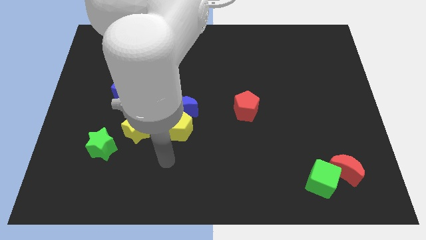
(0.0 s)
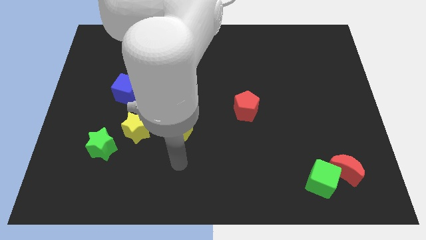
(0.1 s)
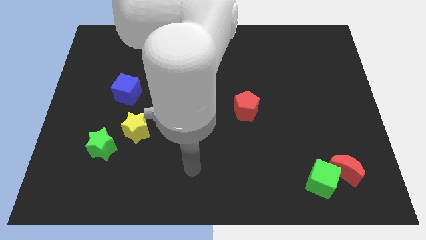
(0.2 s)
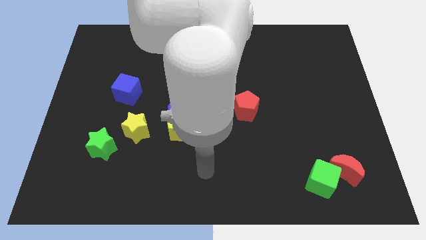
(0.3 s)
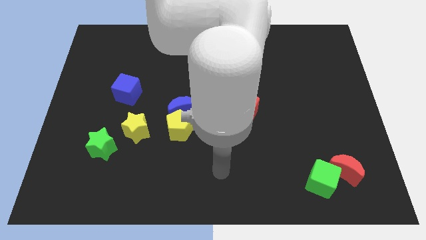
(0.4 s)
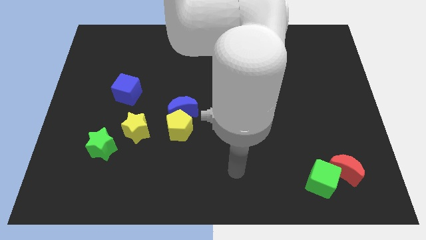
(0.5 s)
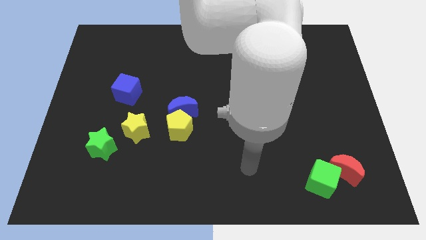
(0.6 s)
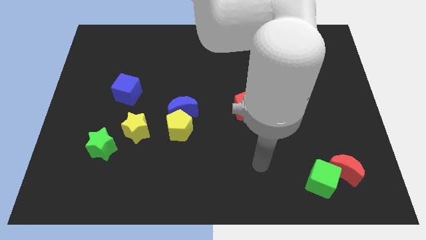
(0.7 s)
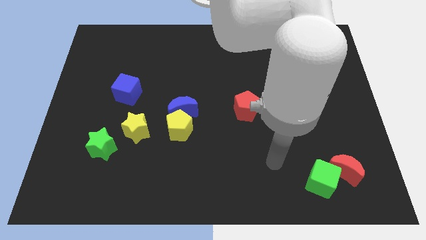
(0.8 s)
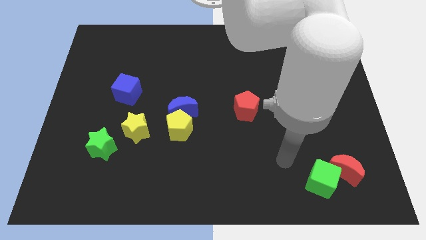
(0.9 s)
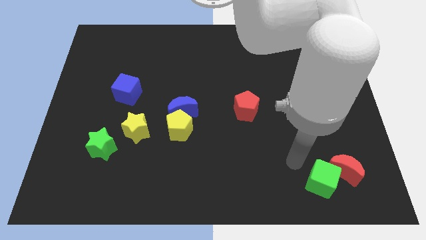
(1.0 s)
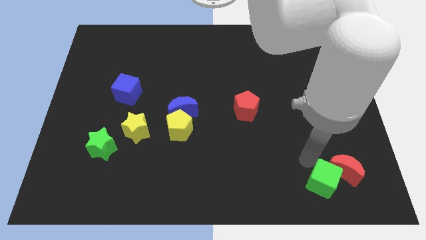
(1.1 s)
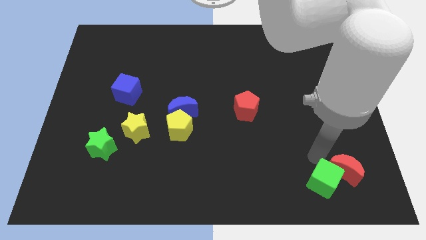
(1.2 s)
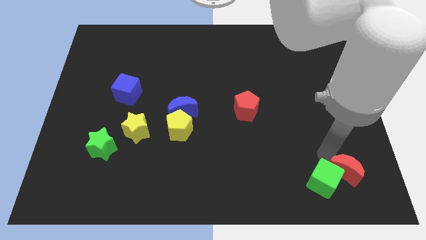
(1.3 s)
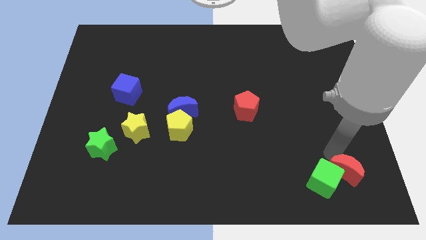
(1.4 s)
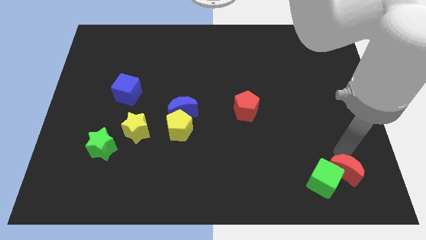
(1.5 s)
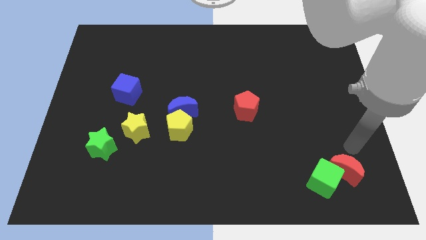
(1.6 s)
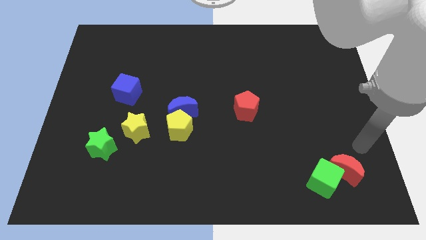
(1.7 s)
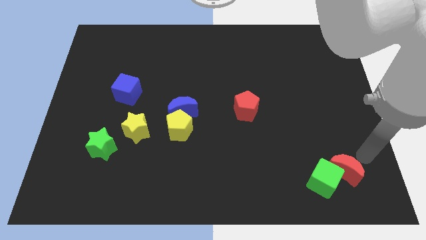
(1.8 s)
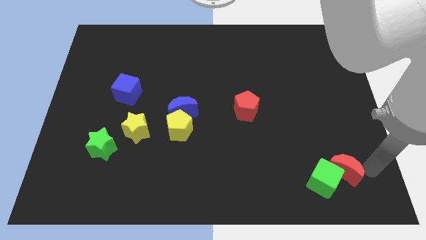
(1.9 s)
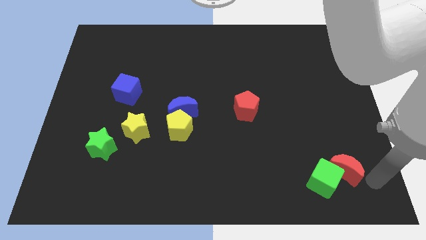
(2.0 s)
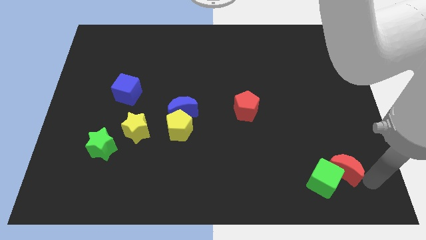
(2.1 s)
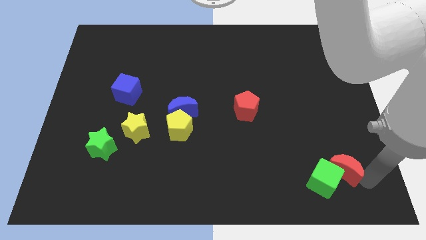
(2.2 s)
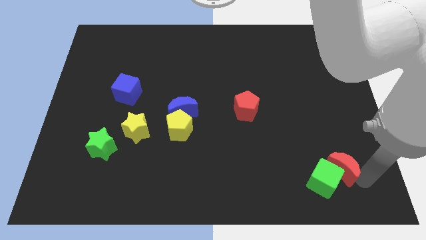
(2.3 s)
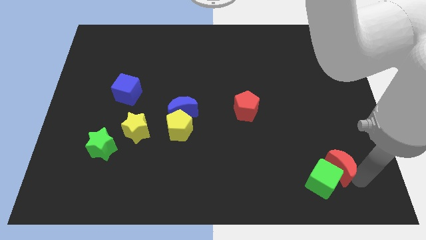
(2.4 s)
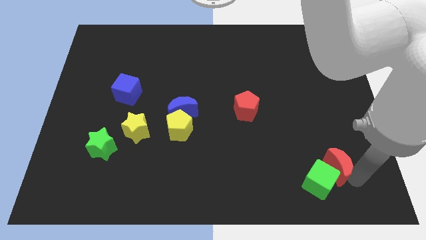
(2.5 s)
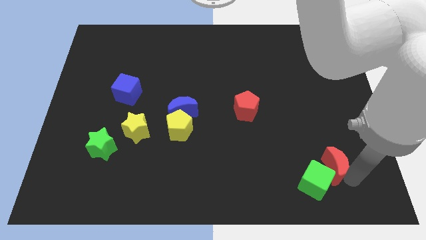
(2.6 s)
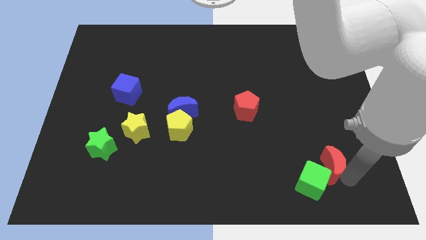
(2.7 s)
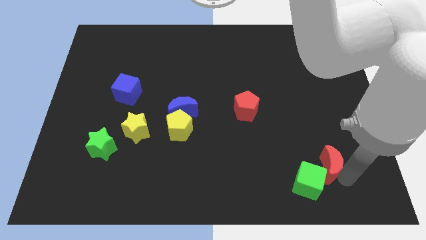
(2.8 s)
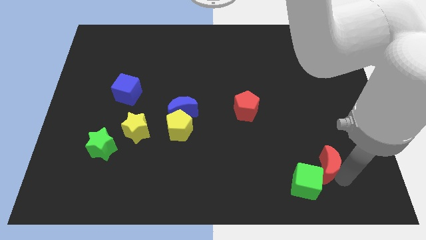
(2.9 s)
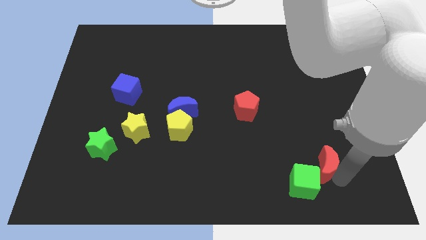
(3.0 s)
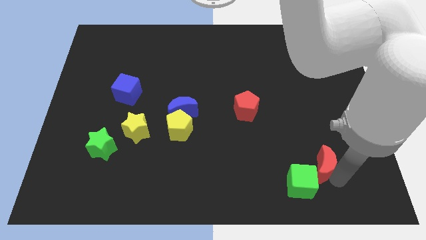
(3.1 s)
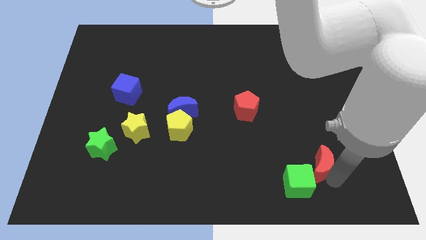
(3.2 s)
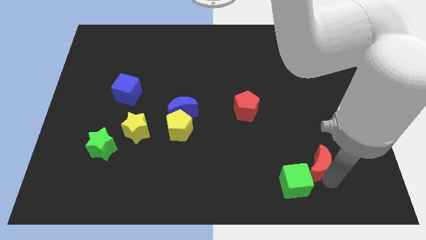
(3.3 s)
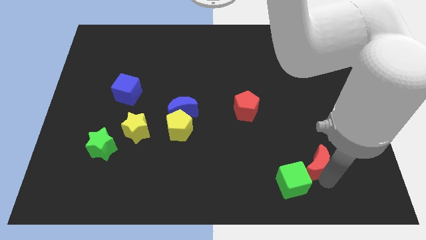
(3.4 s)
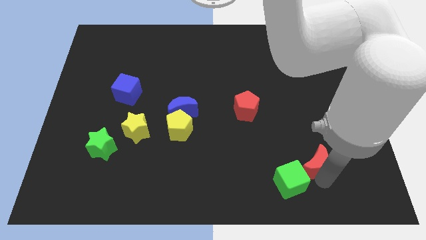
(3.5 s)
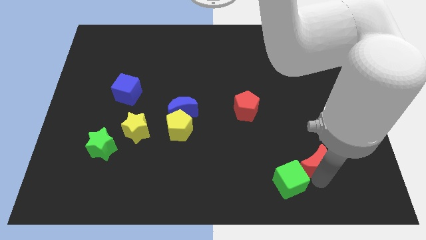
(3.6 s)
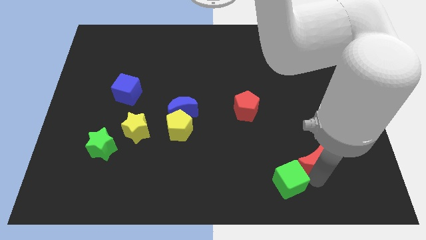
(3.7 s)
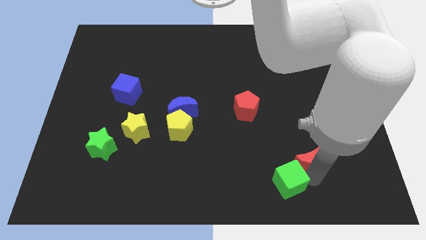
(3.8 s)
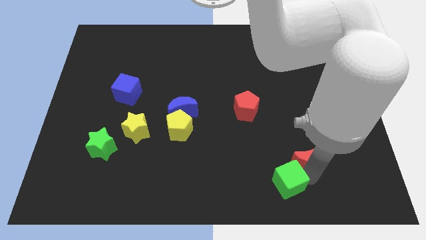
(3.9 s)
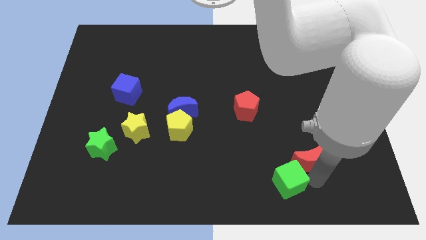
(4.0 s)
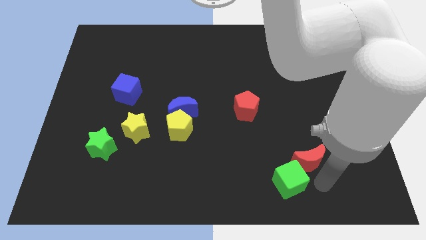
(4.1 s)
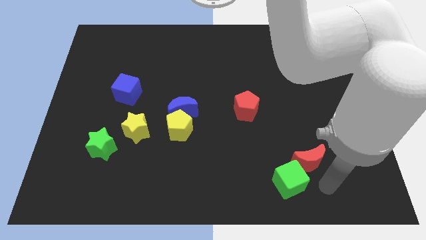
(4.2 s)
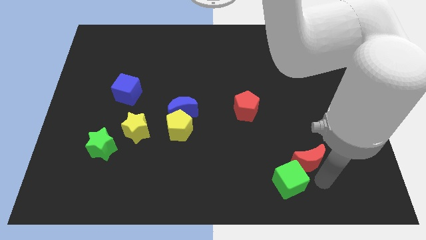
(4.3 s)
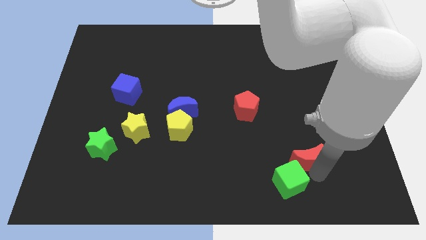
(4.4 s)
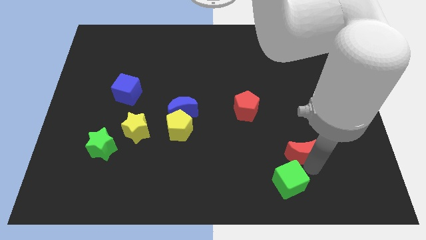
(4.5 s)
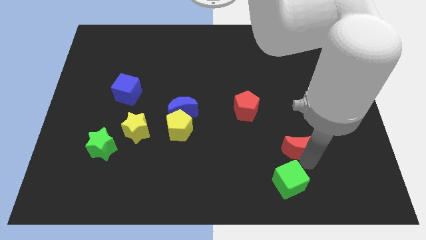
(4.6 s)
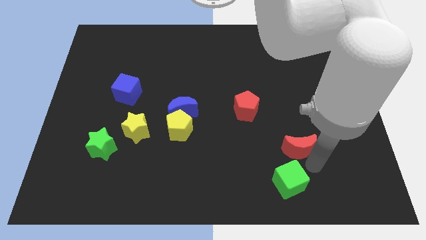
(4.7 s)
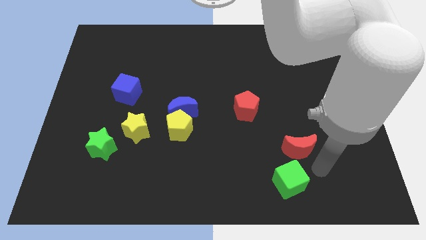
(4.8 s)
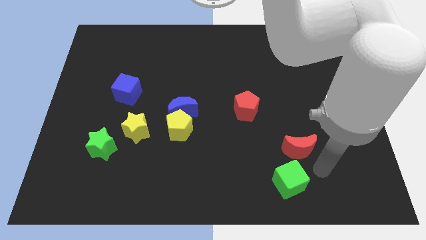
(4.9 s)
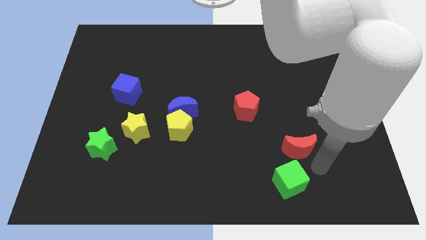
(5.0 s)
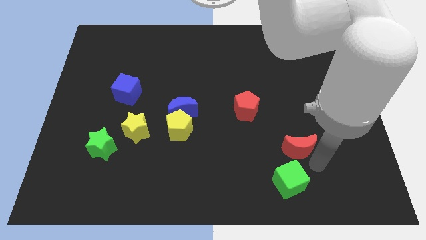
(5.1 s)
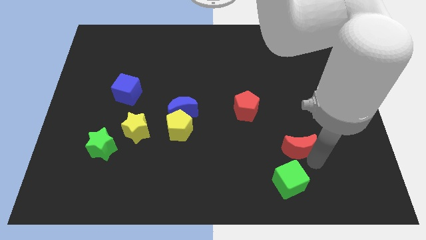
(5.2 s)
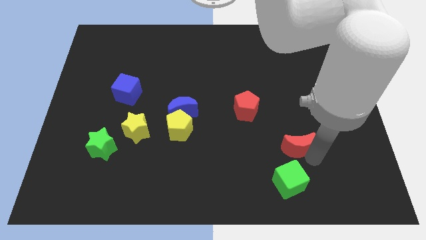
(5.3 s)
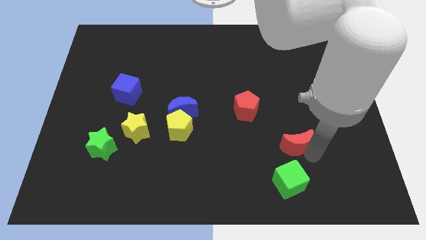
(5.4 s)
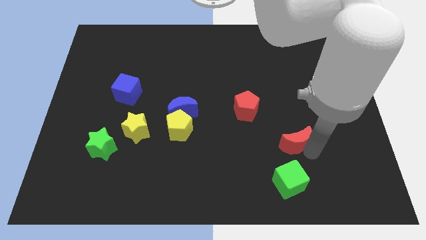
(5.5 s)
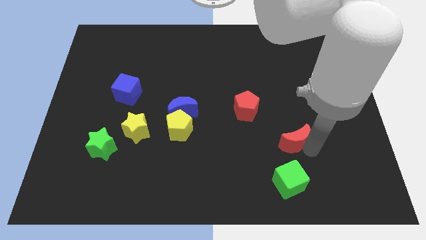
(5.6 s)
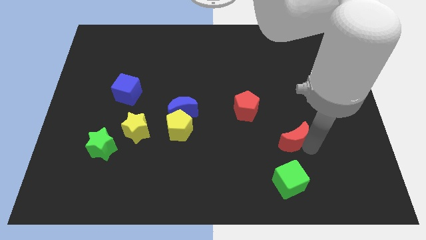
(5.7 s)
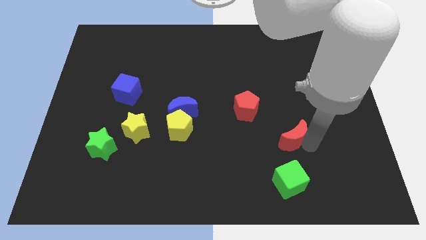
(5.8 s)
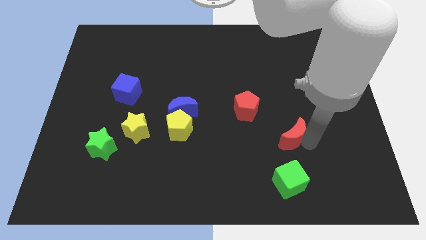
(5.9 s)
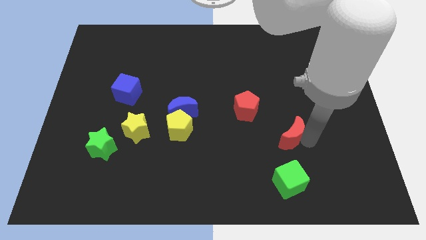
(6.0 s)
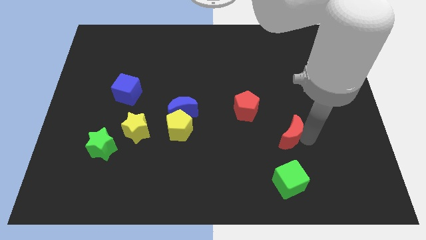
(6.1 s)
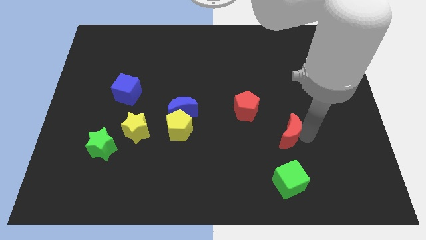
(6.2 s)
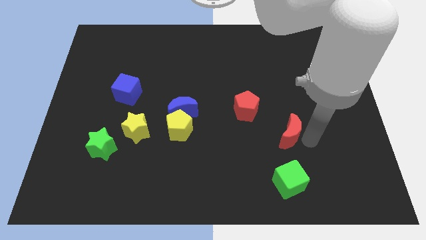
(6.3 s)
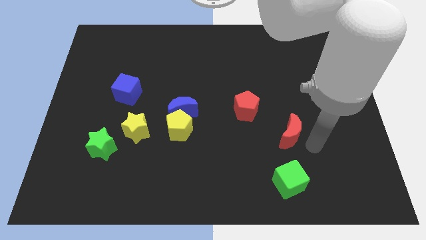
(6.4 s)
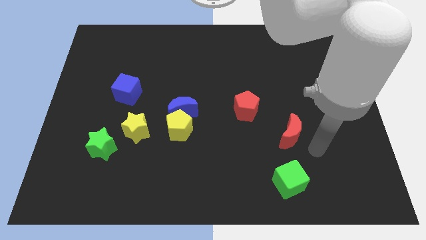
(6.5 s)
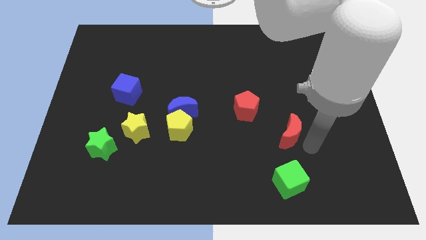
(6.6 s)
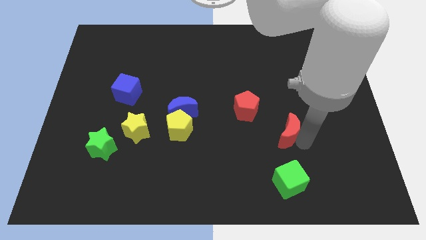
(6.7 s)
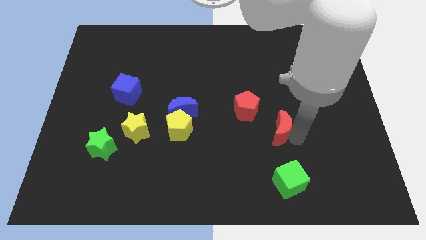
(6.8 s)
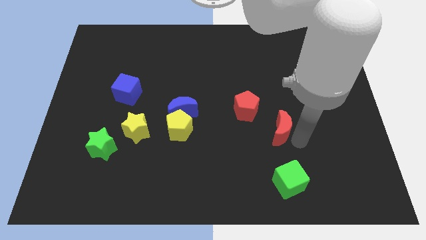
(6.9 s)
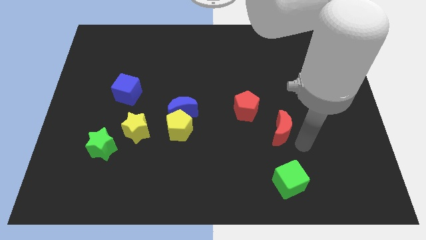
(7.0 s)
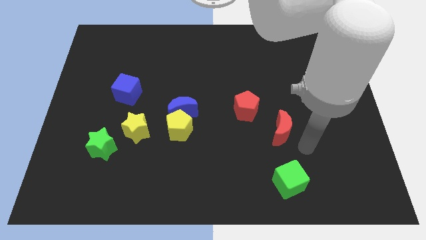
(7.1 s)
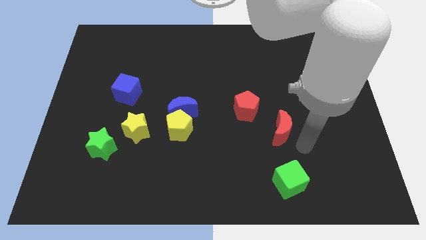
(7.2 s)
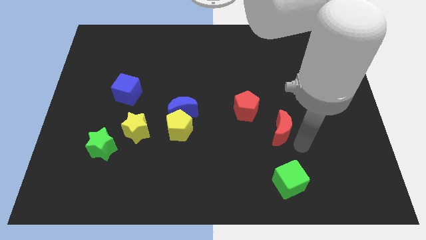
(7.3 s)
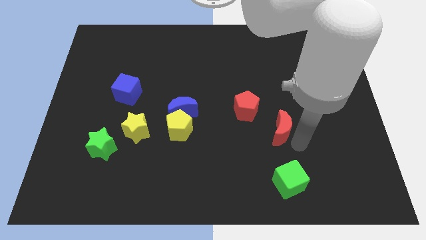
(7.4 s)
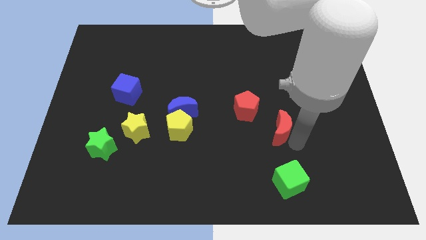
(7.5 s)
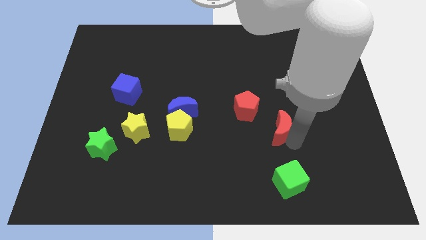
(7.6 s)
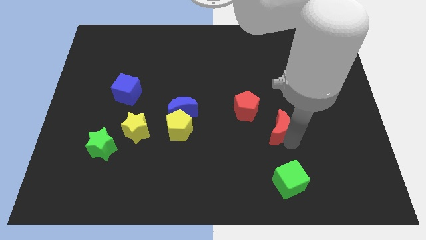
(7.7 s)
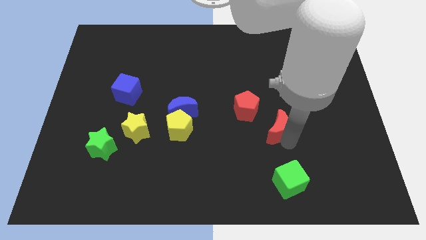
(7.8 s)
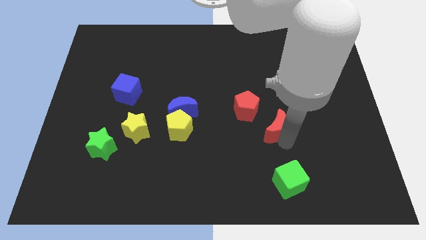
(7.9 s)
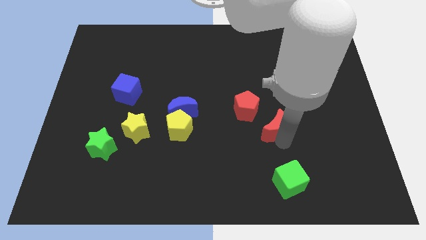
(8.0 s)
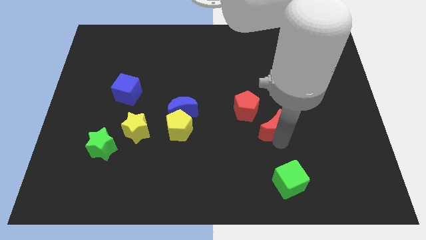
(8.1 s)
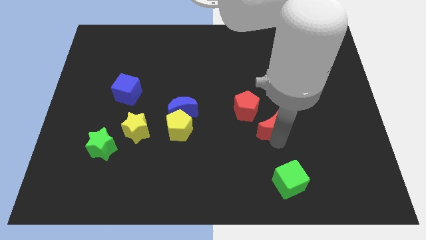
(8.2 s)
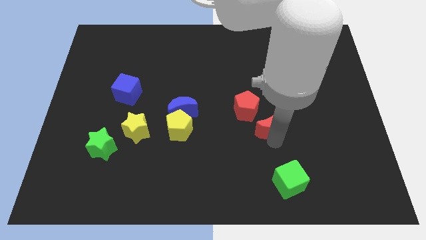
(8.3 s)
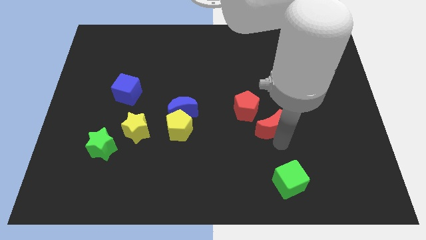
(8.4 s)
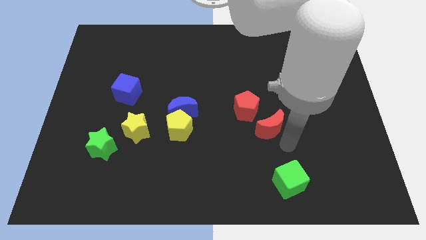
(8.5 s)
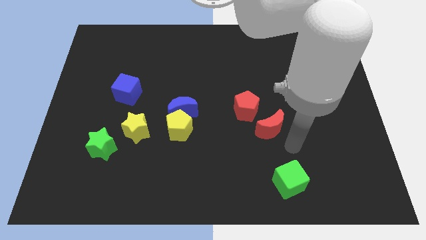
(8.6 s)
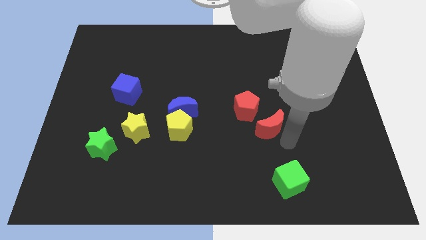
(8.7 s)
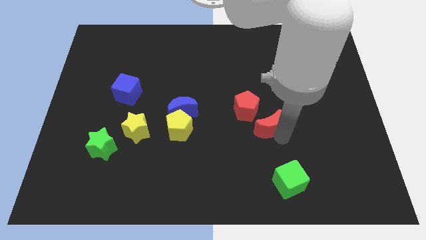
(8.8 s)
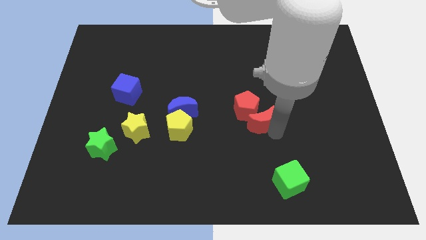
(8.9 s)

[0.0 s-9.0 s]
move the red moon close to the red pentagon
